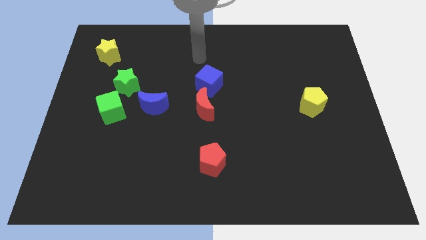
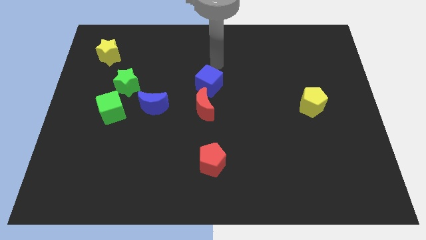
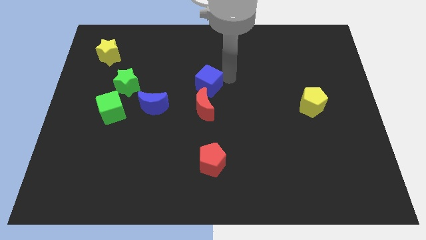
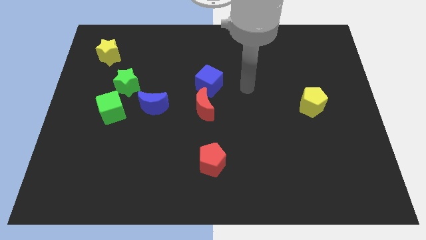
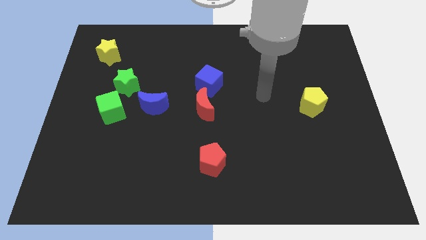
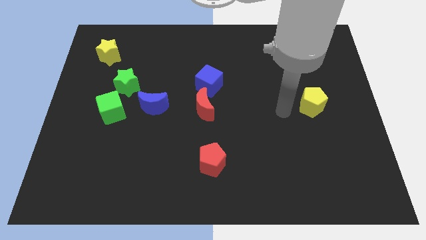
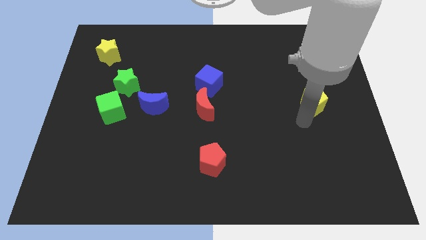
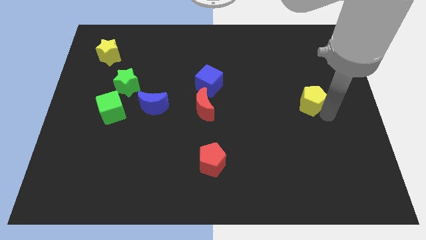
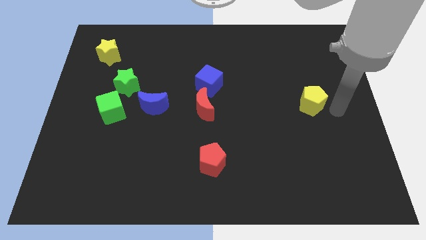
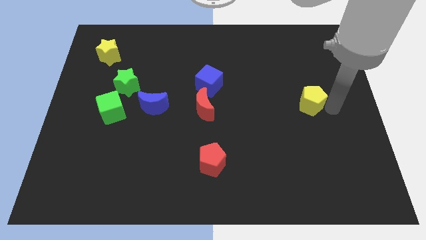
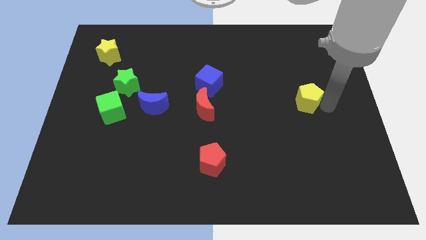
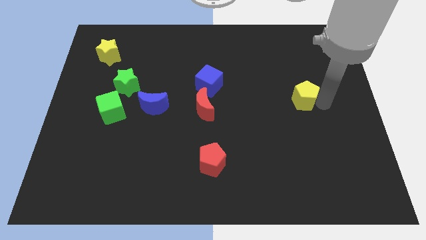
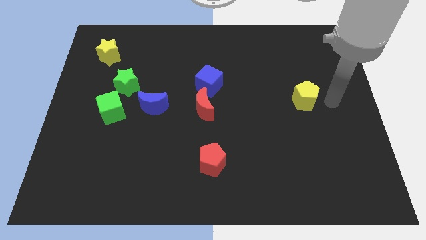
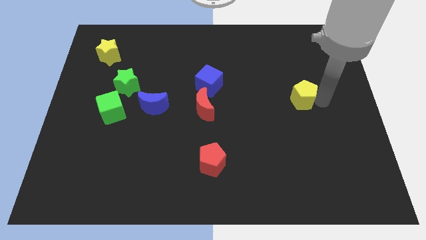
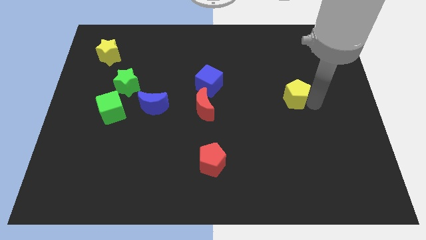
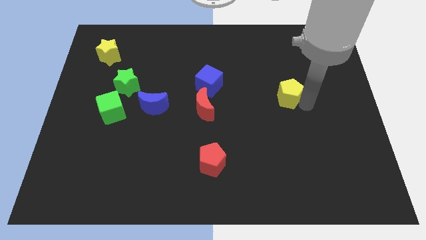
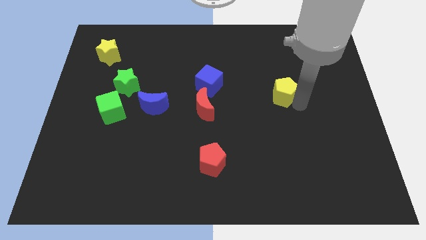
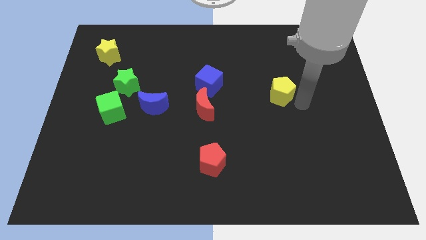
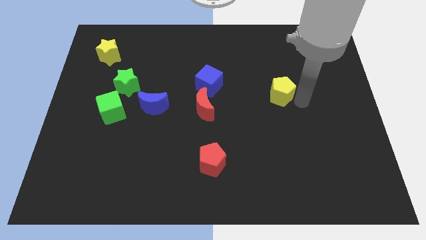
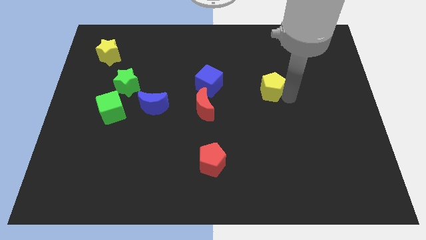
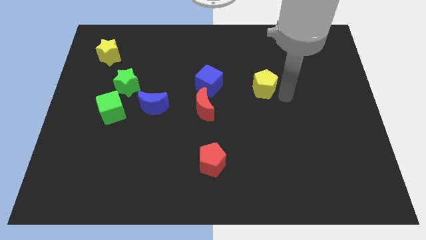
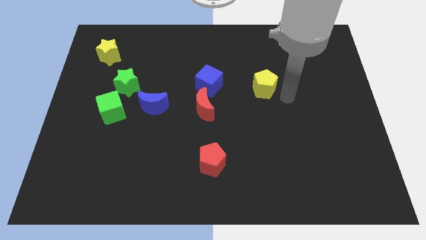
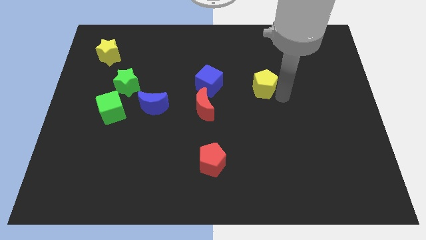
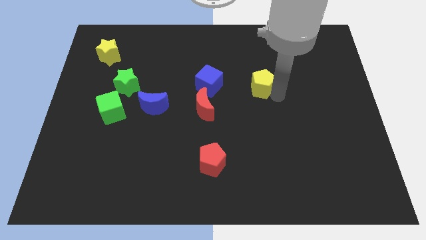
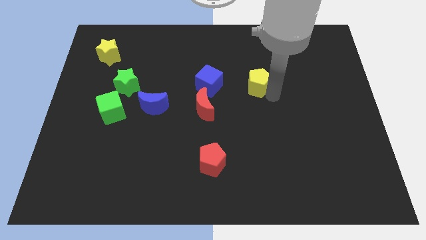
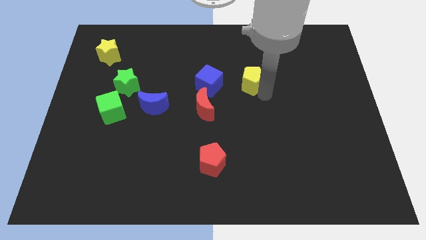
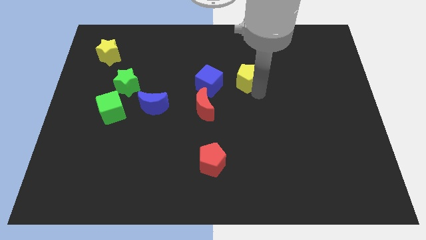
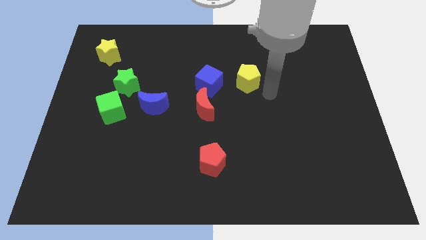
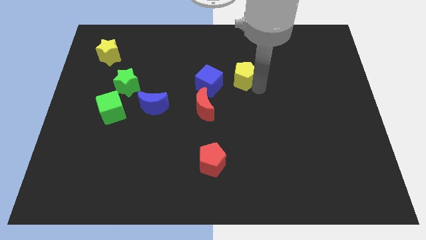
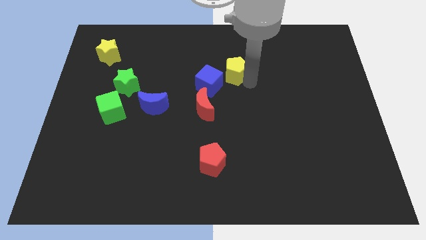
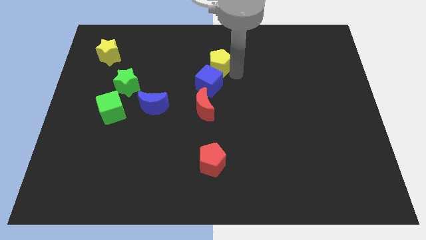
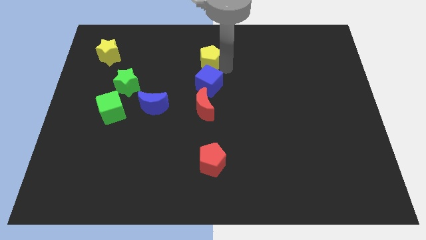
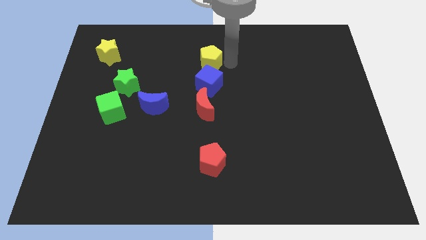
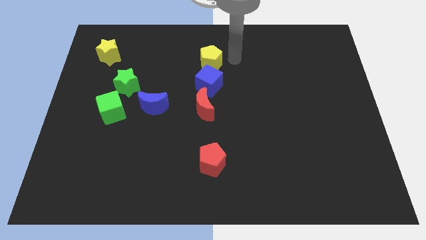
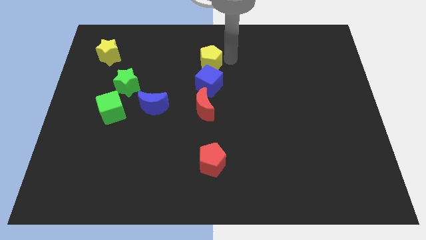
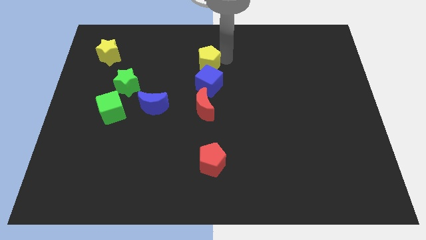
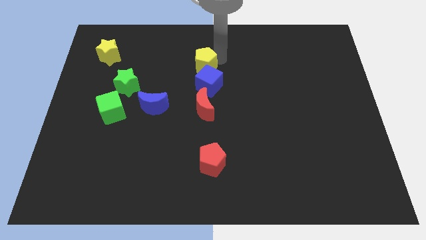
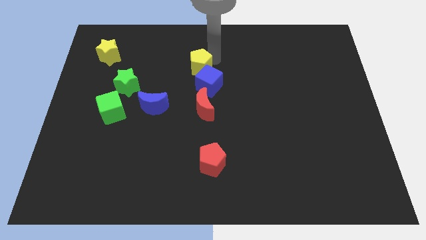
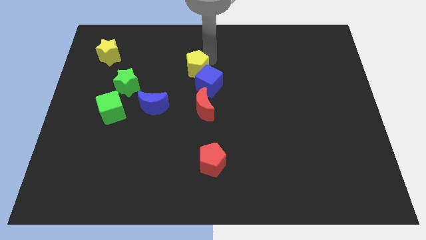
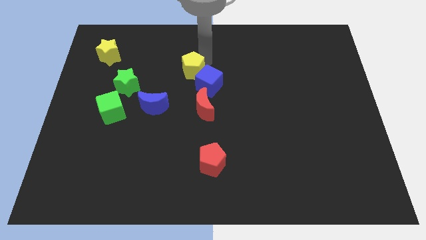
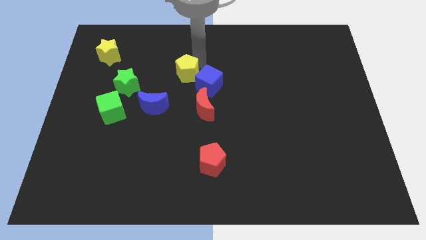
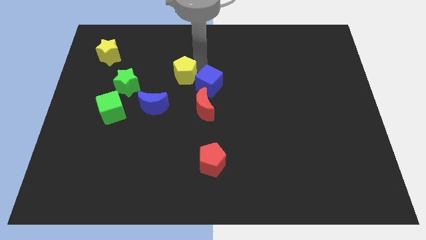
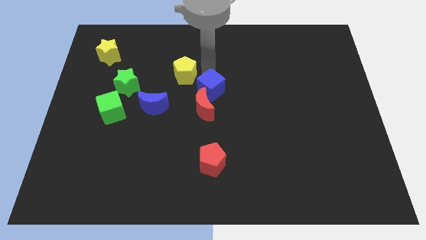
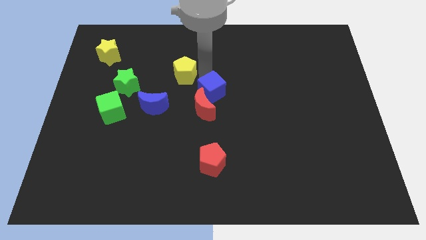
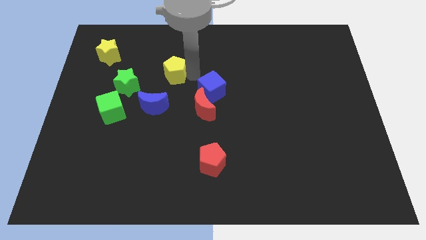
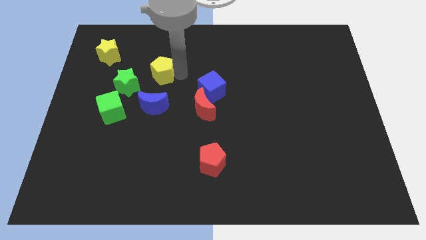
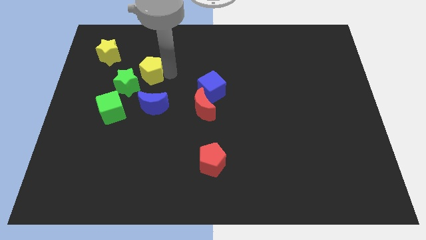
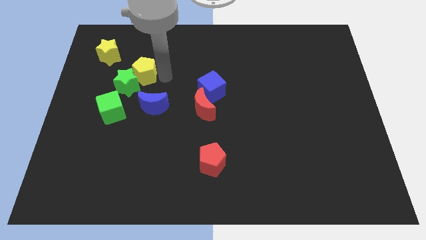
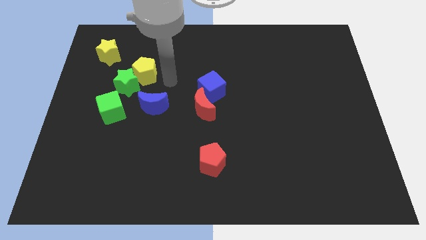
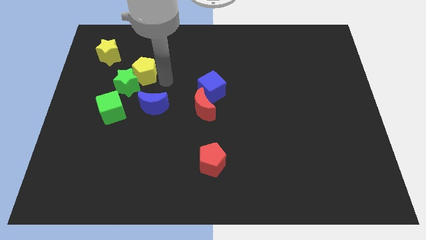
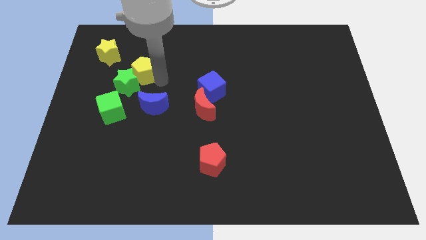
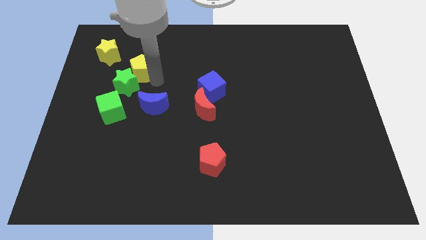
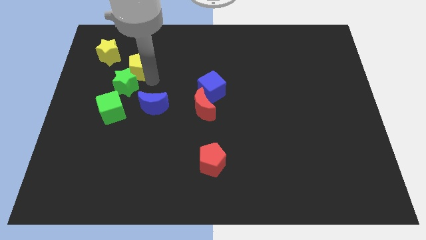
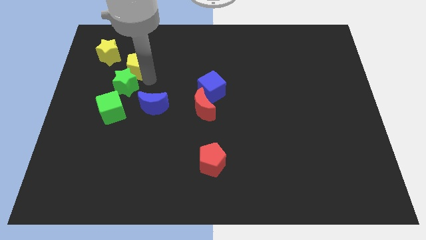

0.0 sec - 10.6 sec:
move the yellow pentagon to the top of the green cube

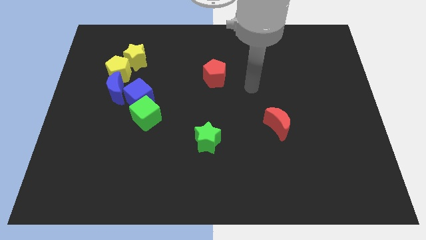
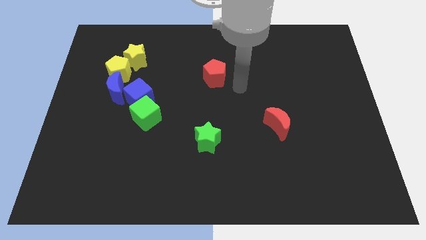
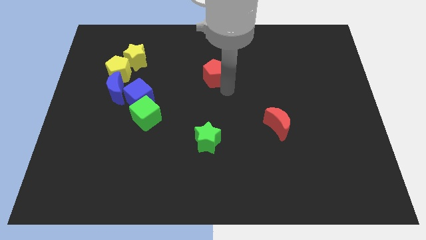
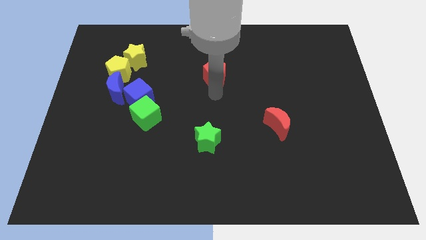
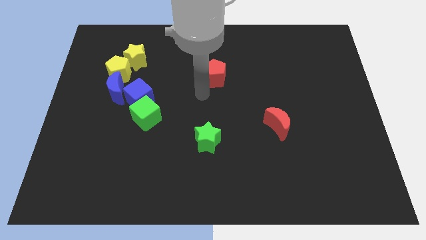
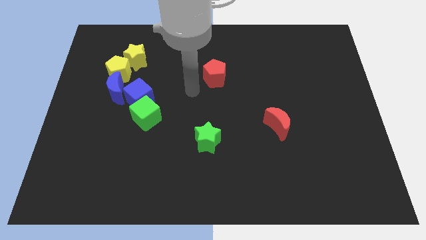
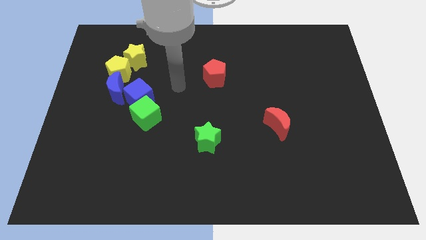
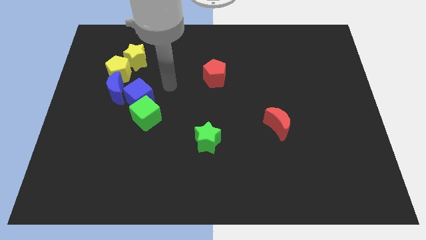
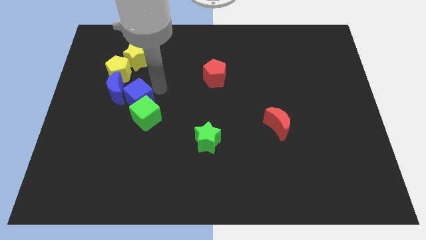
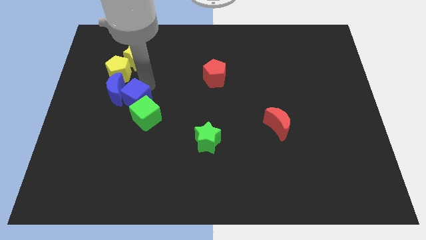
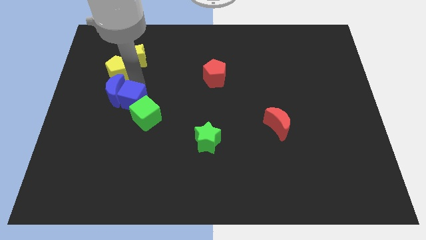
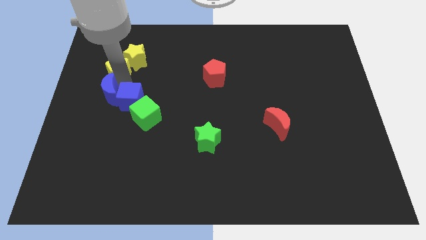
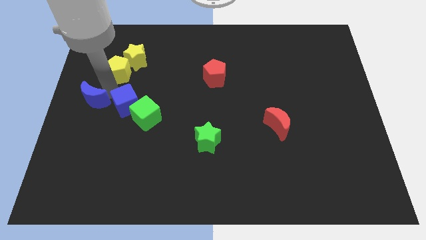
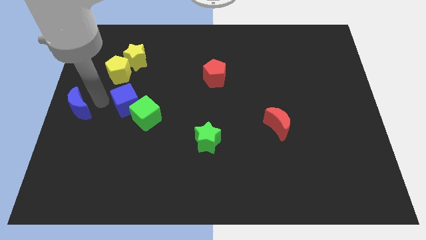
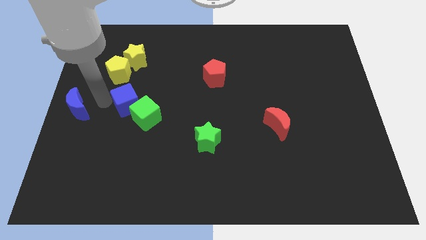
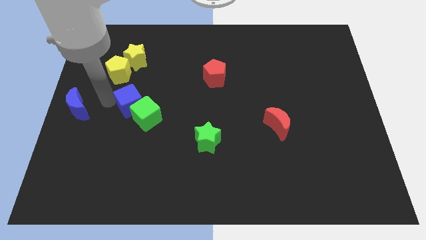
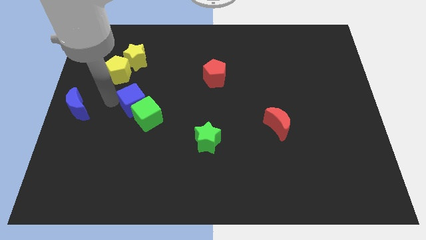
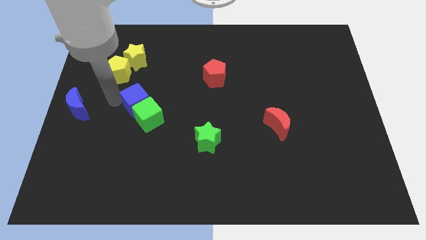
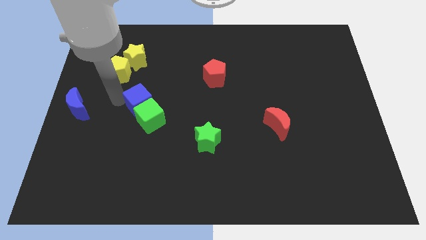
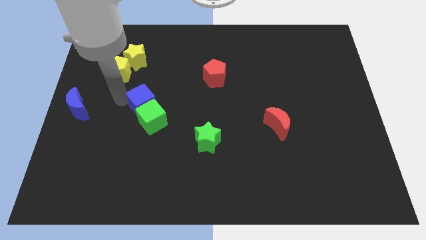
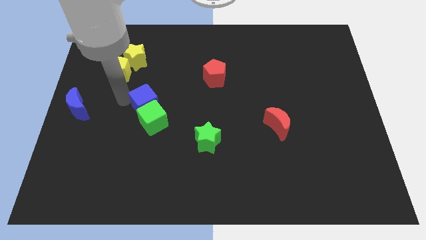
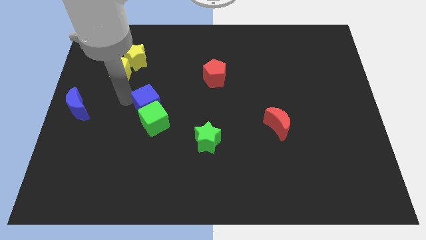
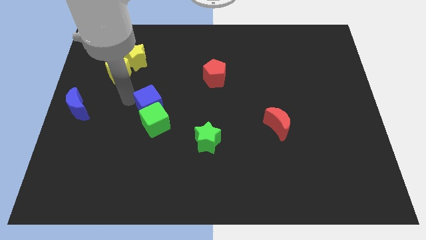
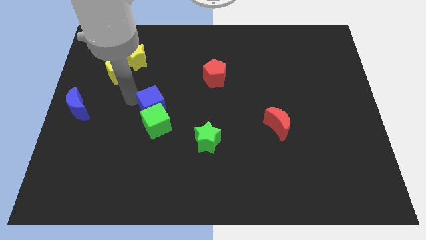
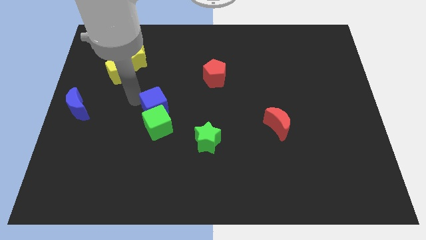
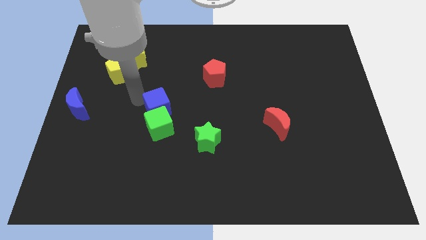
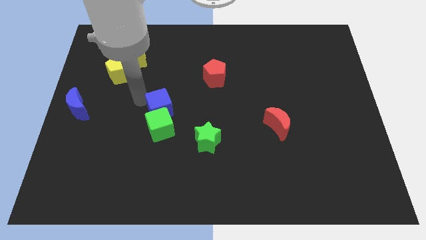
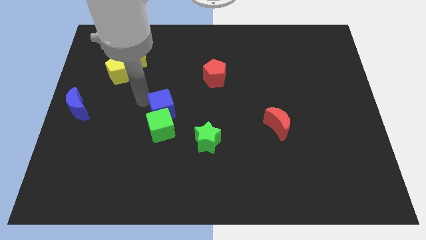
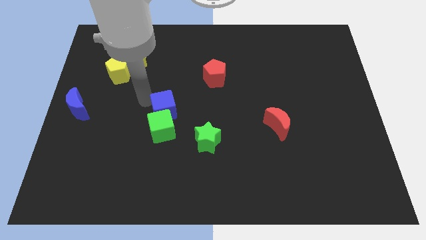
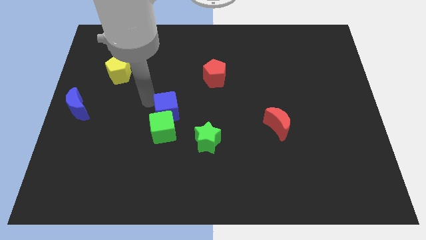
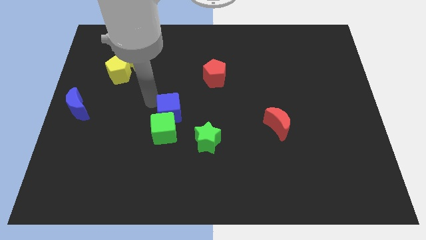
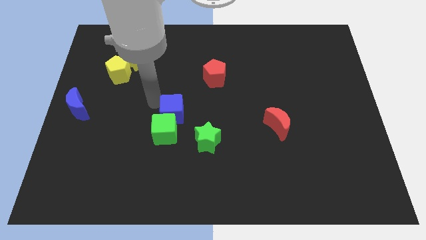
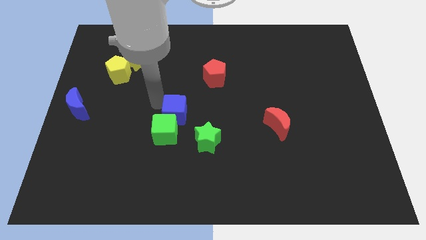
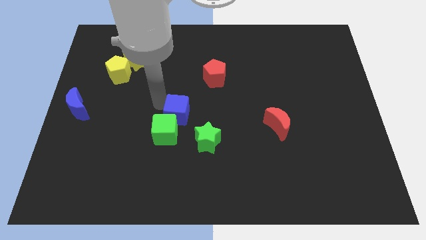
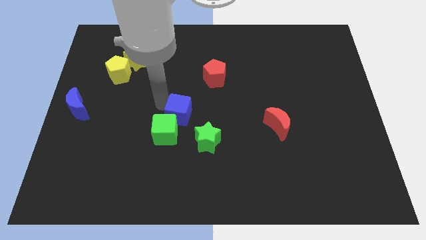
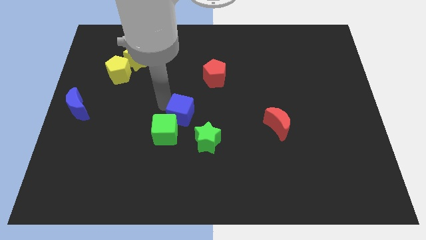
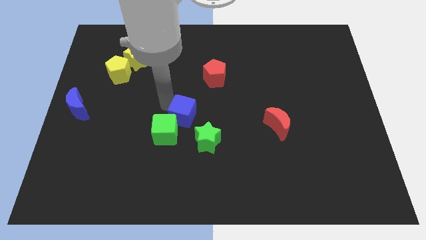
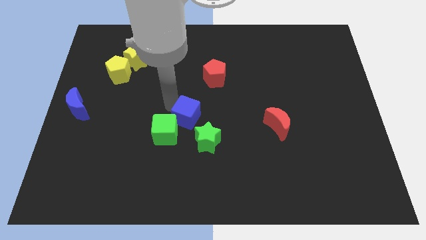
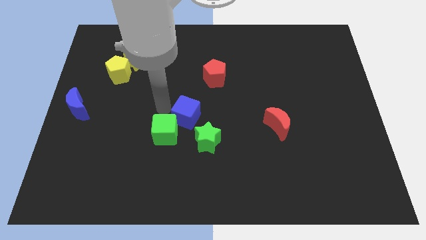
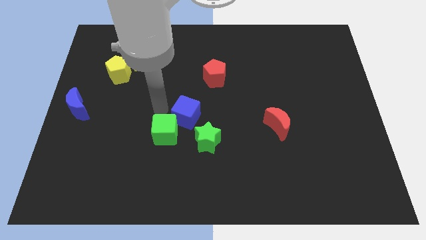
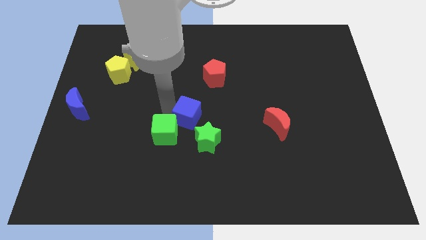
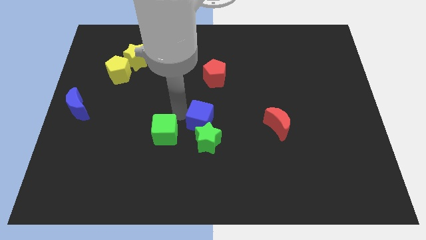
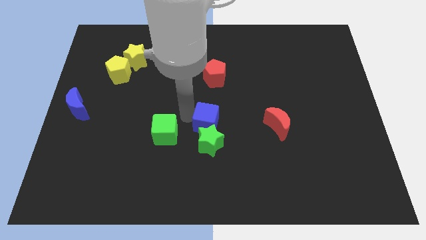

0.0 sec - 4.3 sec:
push the blue cube to the left side of the red moon
